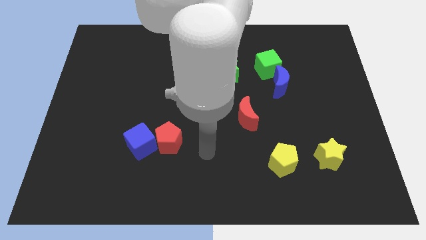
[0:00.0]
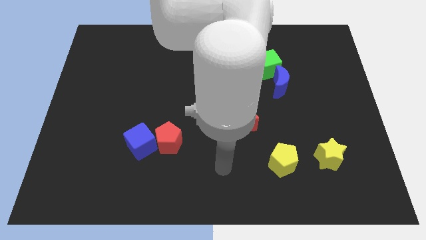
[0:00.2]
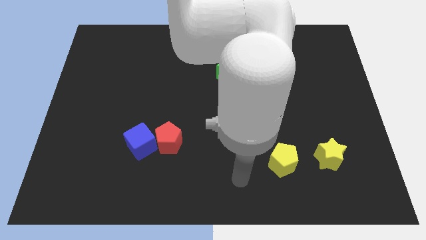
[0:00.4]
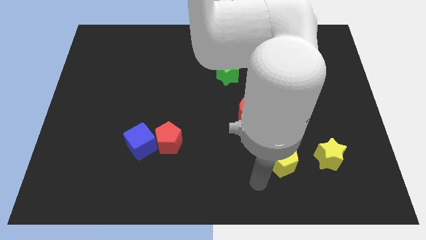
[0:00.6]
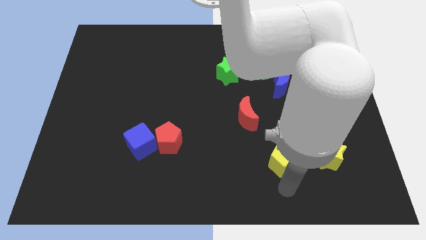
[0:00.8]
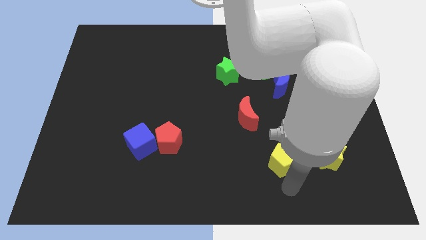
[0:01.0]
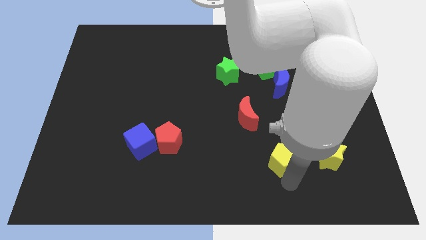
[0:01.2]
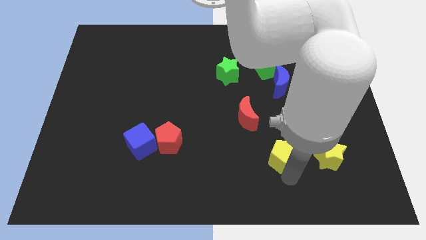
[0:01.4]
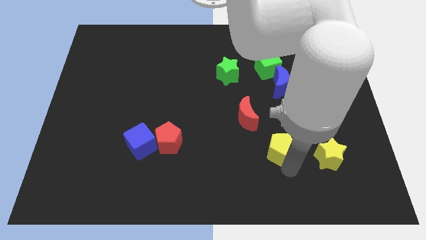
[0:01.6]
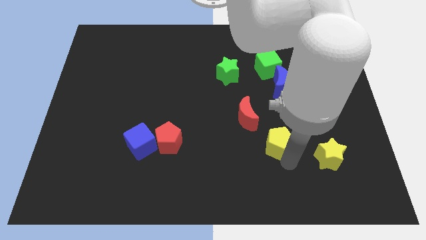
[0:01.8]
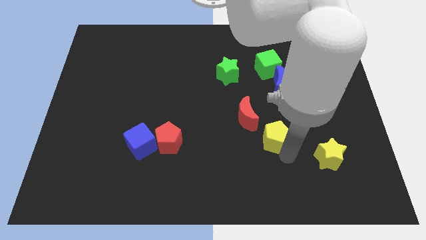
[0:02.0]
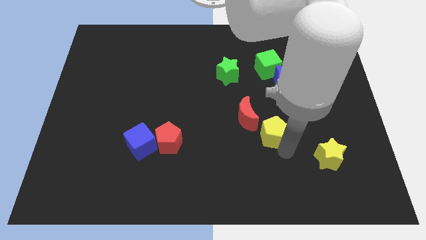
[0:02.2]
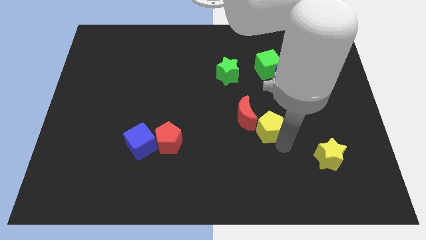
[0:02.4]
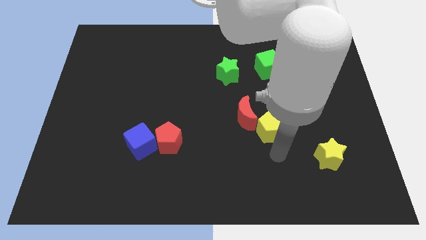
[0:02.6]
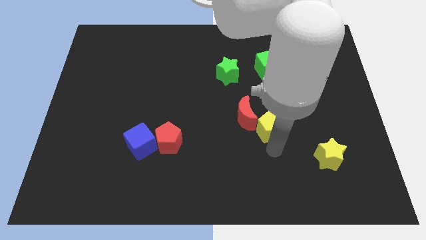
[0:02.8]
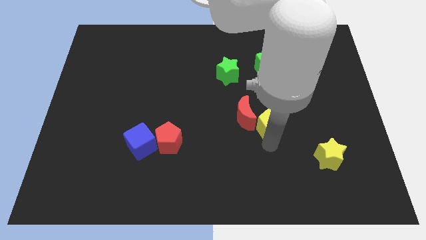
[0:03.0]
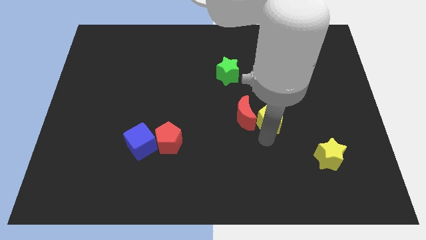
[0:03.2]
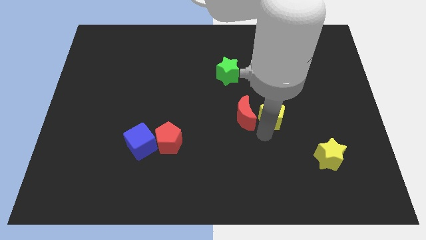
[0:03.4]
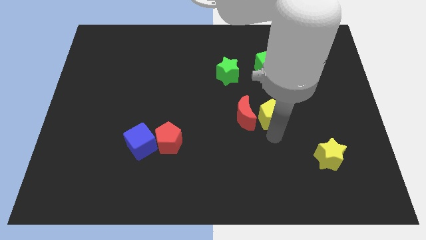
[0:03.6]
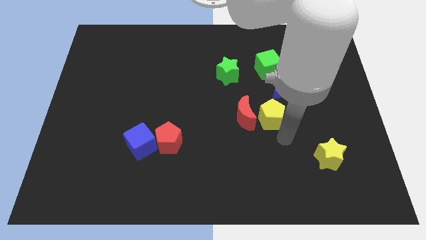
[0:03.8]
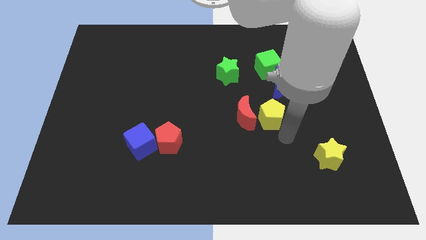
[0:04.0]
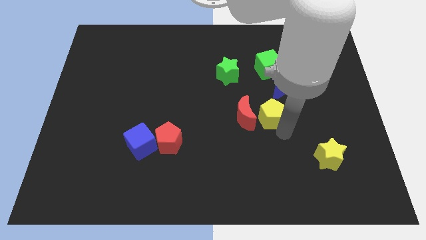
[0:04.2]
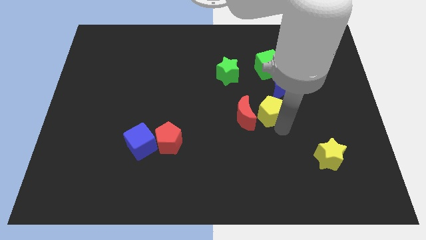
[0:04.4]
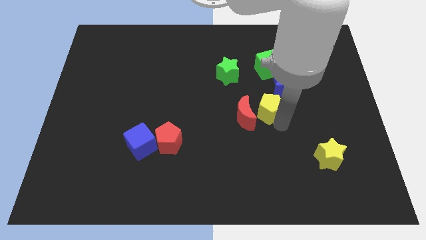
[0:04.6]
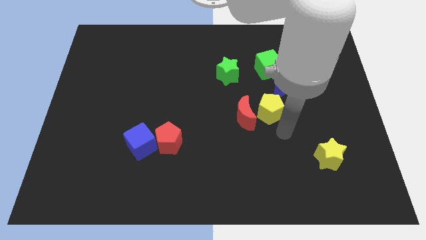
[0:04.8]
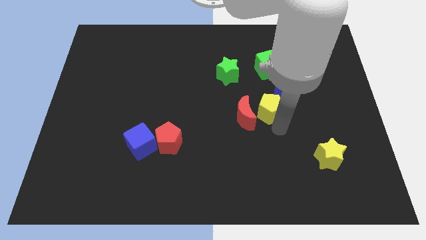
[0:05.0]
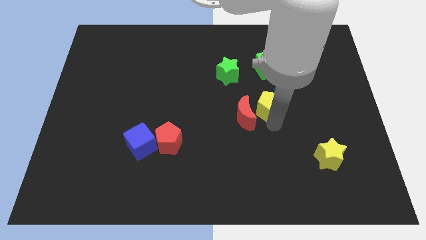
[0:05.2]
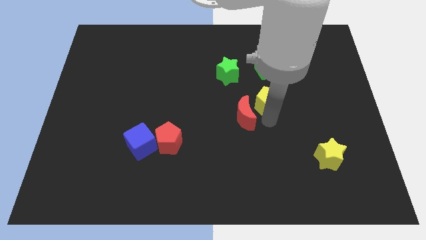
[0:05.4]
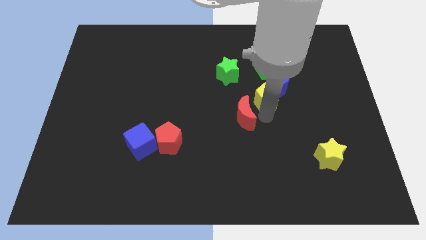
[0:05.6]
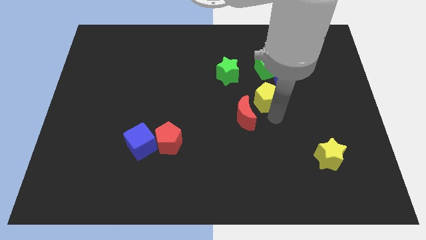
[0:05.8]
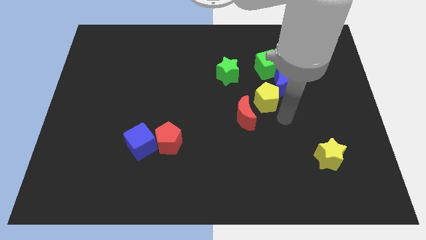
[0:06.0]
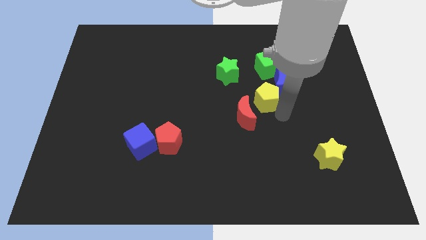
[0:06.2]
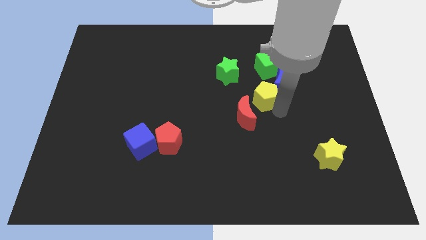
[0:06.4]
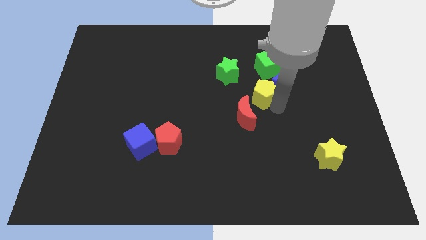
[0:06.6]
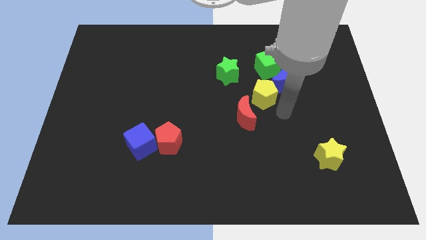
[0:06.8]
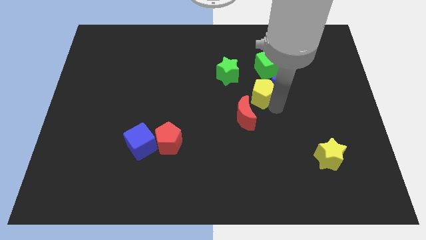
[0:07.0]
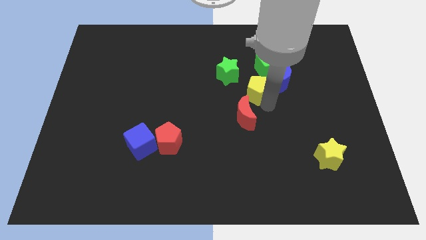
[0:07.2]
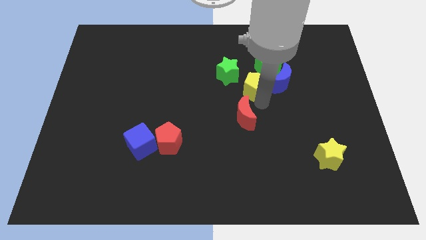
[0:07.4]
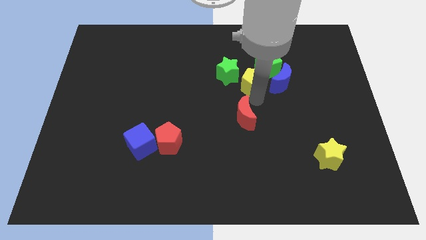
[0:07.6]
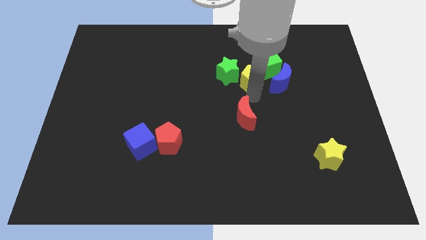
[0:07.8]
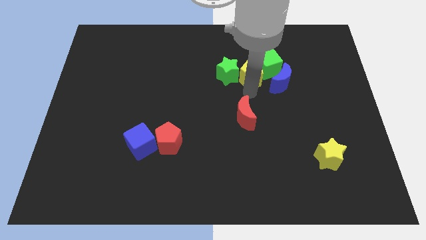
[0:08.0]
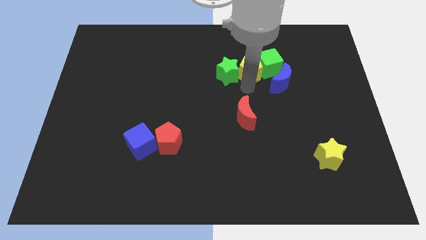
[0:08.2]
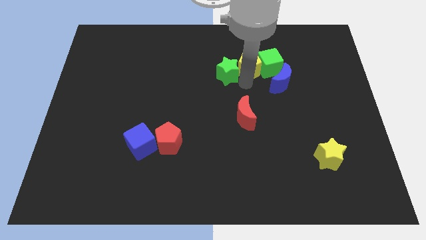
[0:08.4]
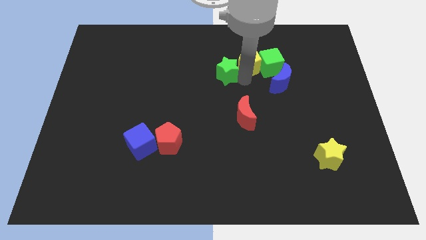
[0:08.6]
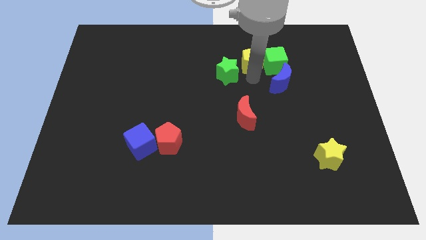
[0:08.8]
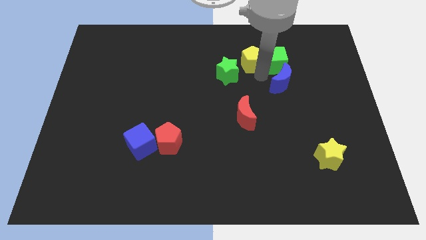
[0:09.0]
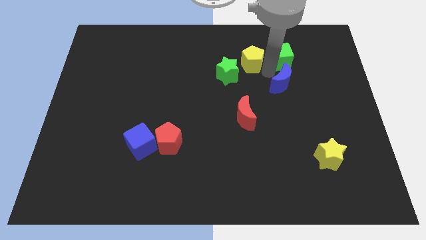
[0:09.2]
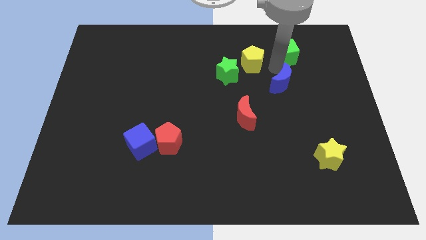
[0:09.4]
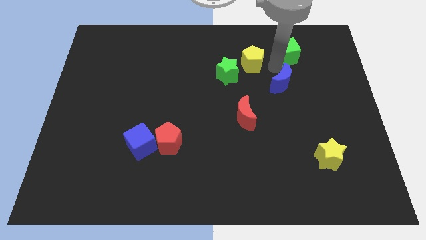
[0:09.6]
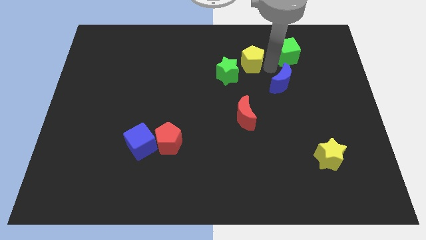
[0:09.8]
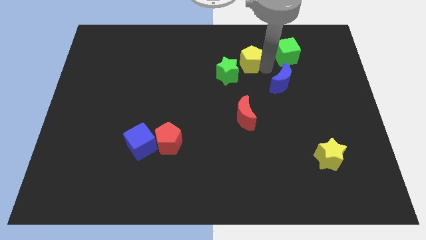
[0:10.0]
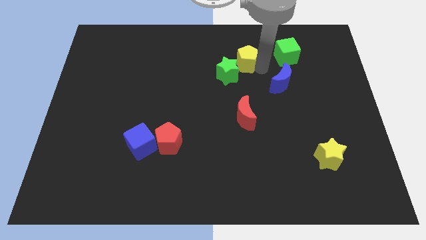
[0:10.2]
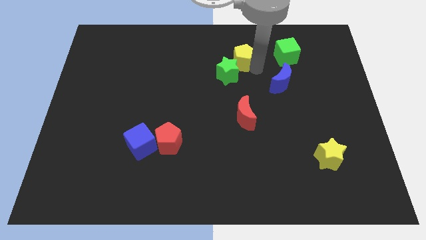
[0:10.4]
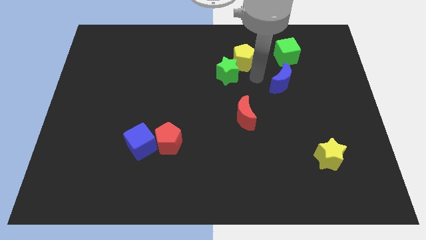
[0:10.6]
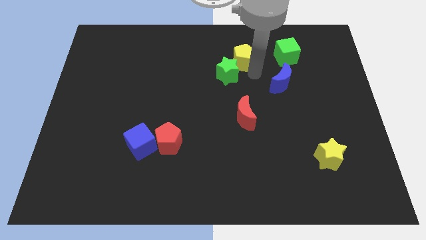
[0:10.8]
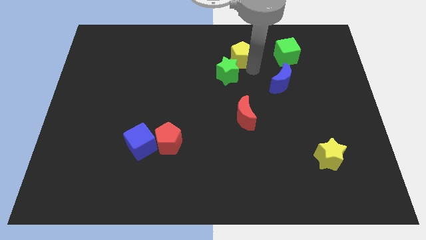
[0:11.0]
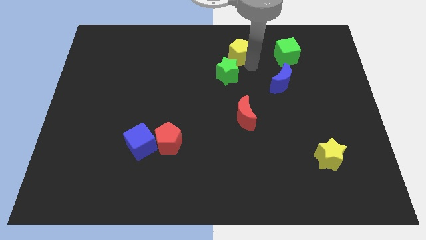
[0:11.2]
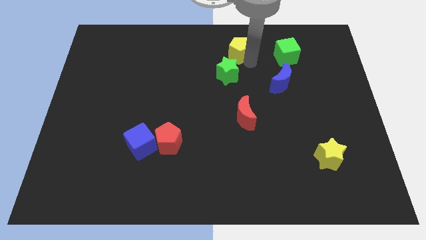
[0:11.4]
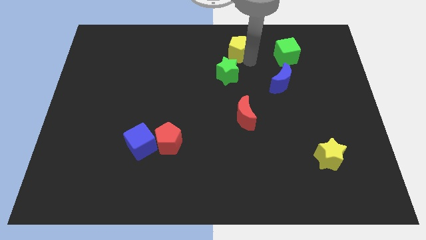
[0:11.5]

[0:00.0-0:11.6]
put the yellow pentagon to the top

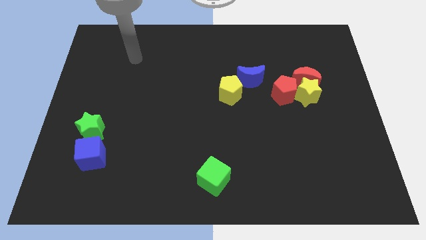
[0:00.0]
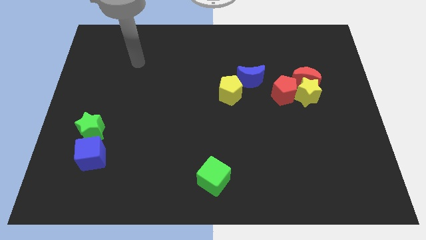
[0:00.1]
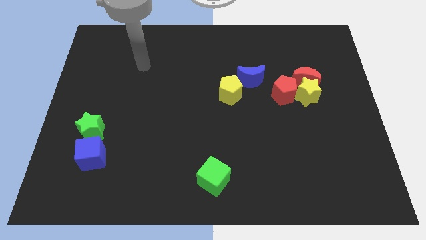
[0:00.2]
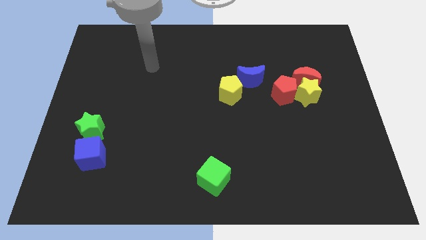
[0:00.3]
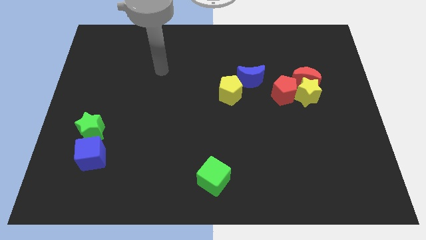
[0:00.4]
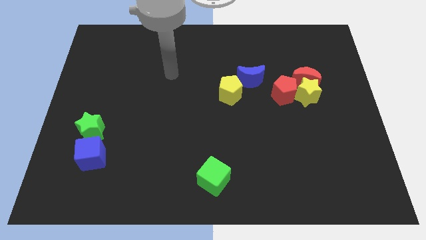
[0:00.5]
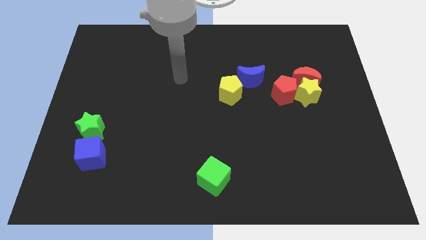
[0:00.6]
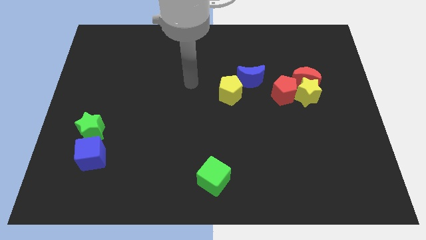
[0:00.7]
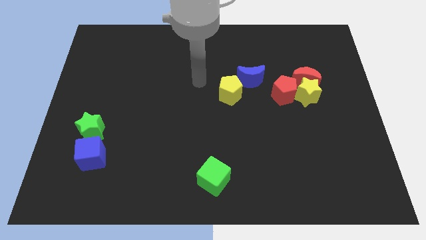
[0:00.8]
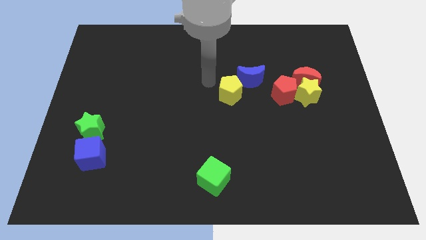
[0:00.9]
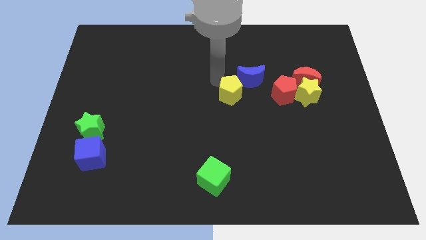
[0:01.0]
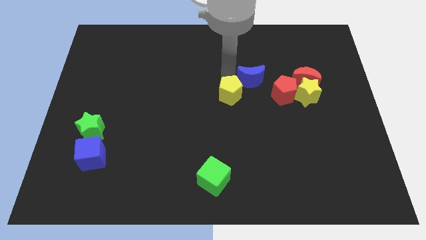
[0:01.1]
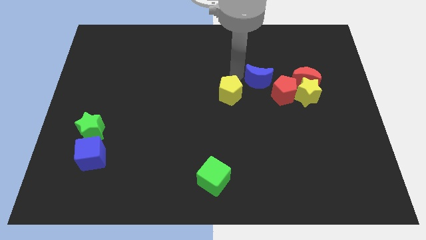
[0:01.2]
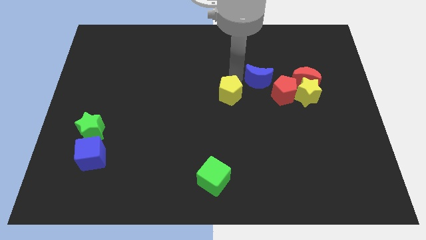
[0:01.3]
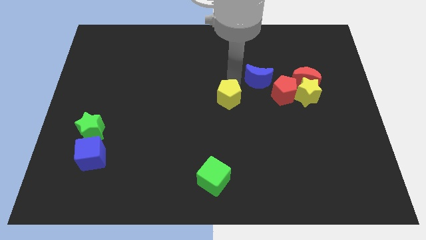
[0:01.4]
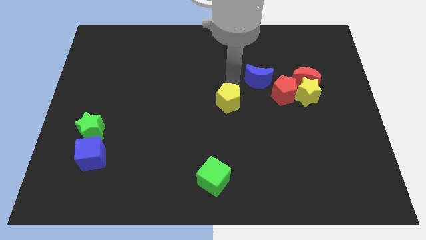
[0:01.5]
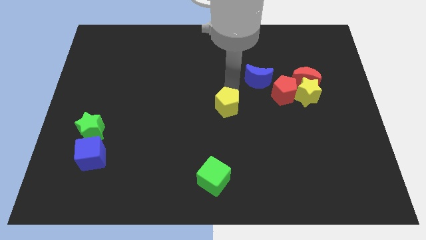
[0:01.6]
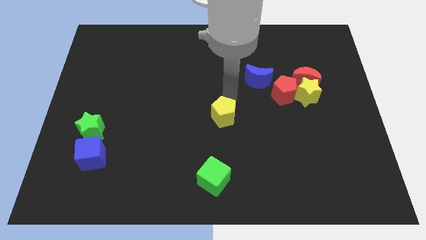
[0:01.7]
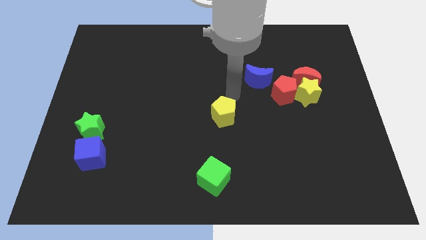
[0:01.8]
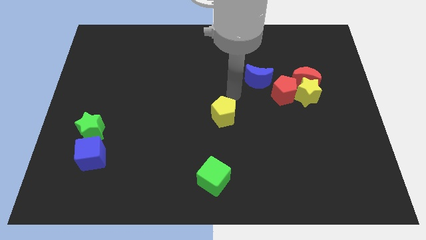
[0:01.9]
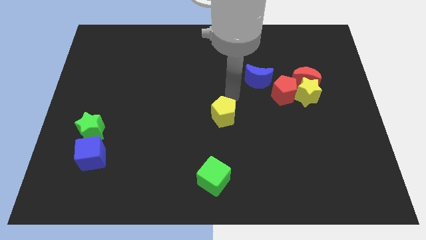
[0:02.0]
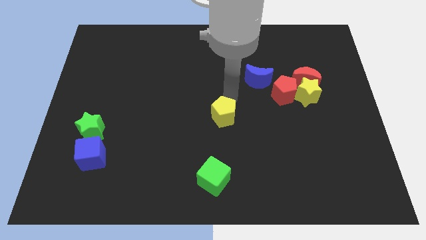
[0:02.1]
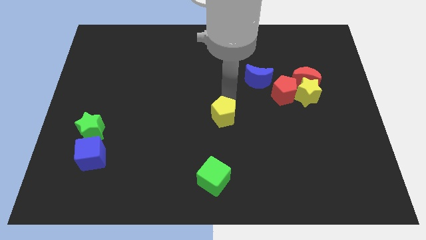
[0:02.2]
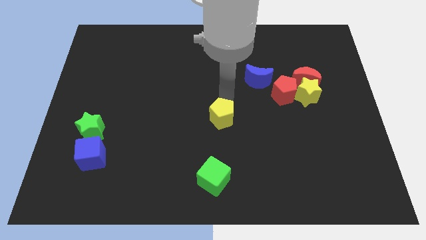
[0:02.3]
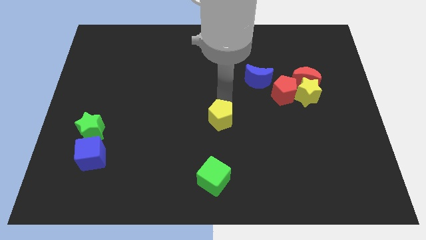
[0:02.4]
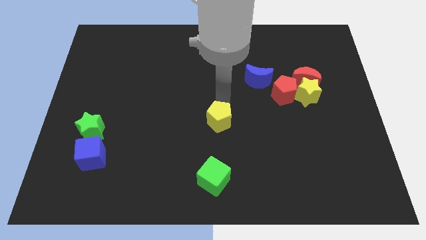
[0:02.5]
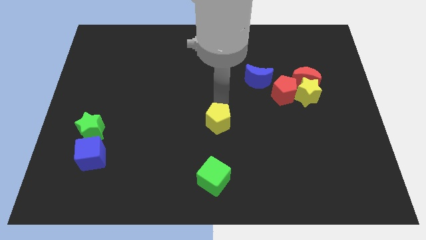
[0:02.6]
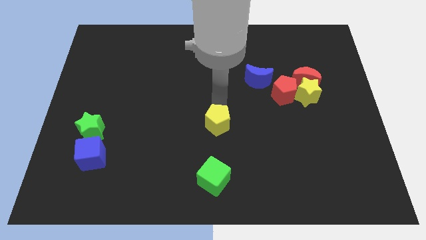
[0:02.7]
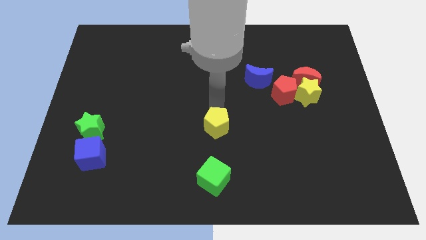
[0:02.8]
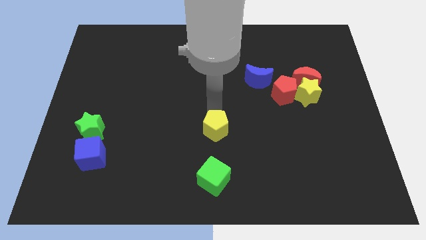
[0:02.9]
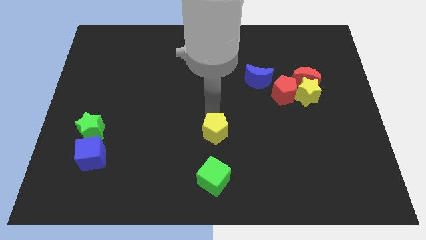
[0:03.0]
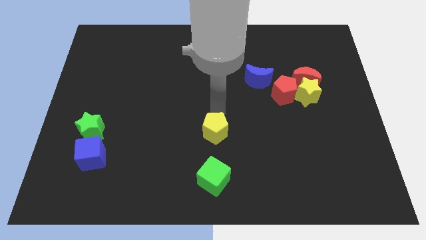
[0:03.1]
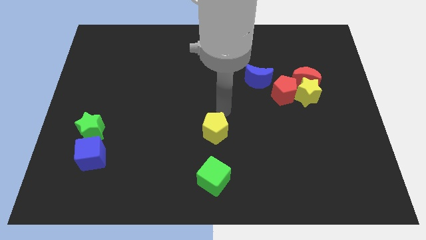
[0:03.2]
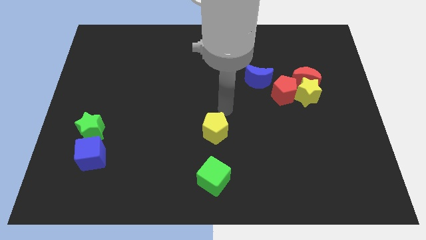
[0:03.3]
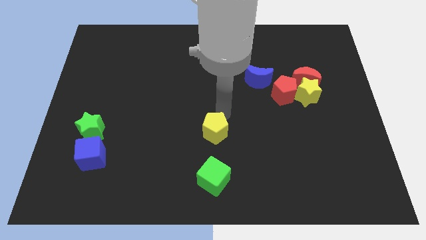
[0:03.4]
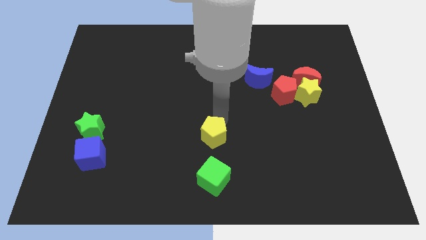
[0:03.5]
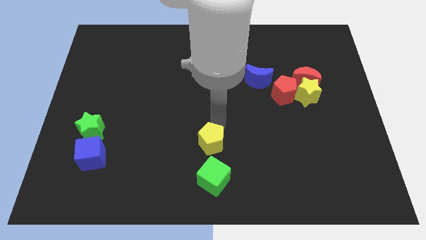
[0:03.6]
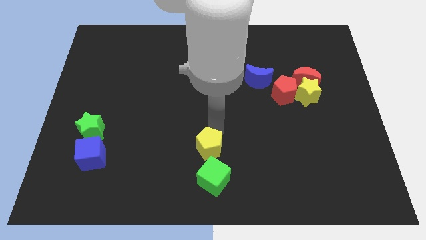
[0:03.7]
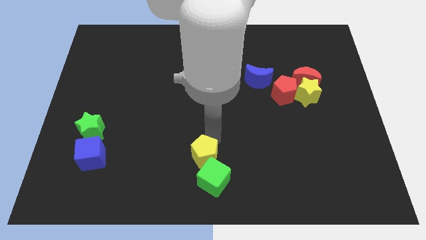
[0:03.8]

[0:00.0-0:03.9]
put the yellow pentagon to the bottom
